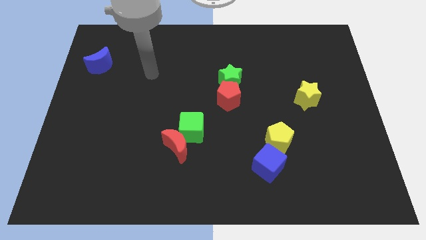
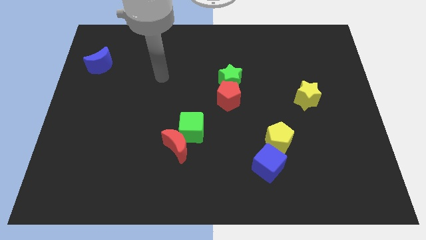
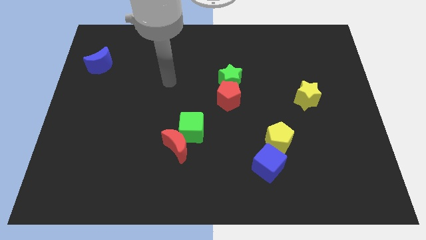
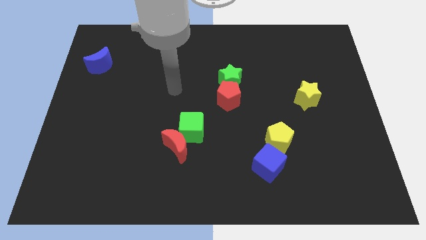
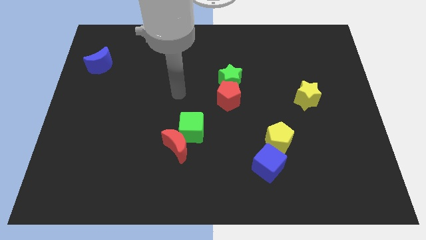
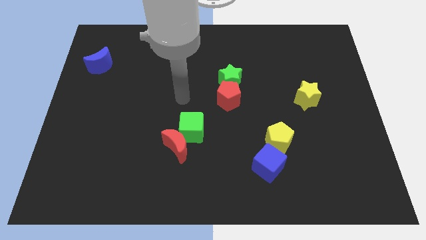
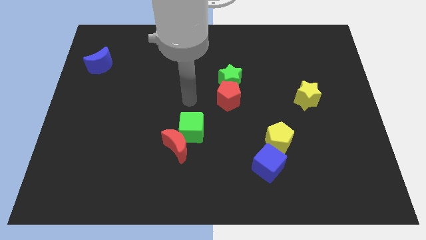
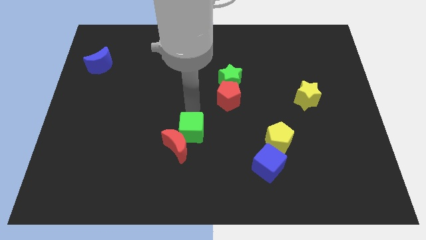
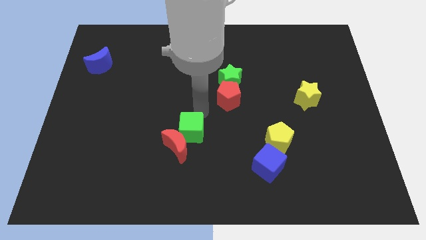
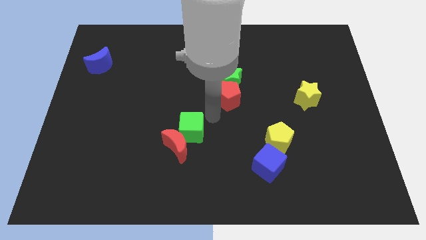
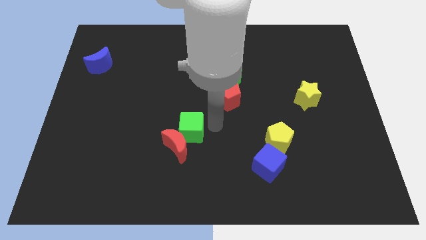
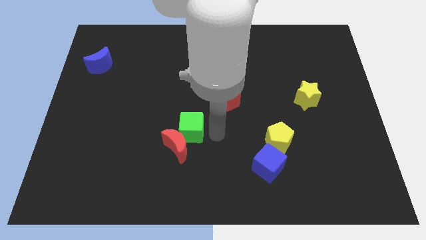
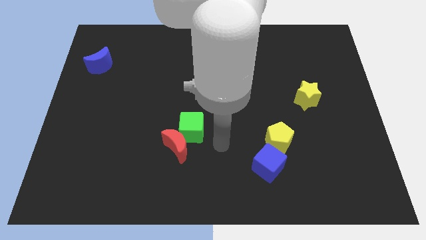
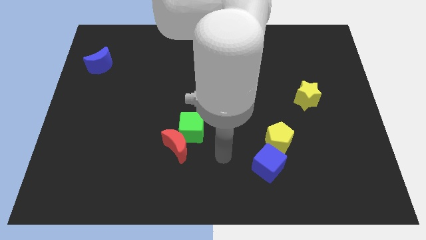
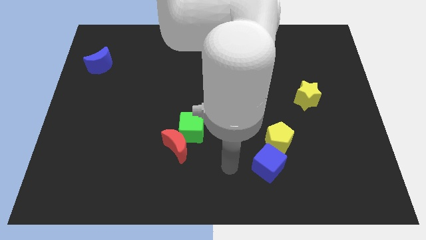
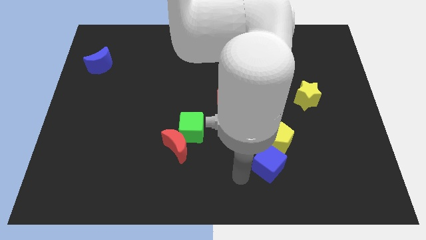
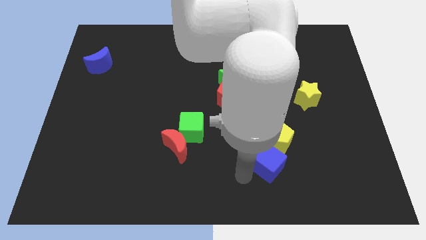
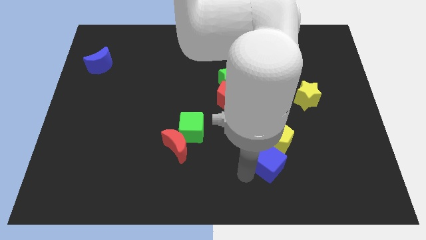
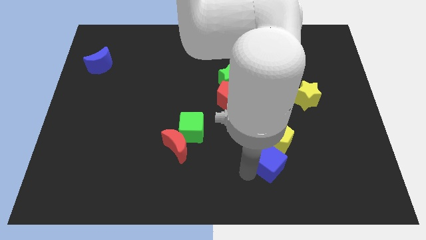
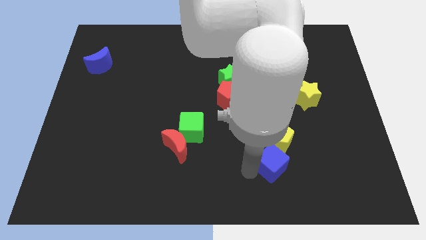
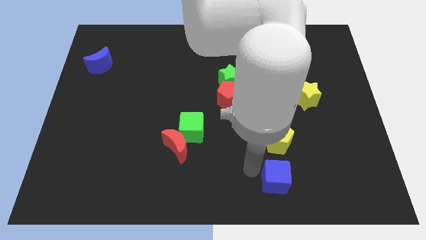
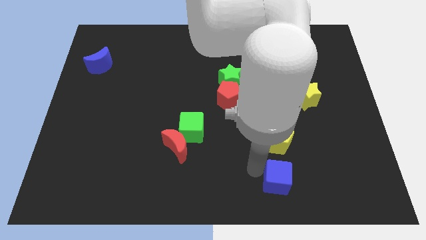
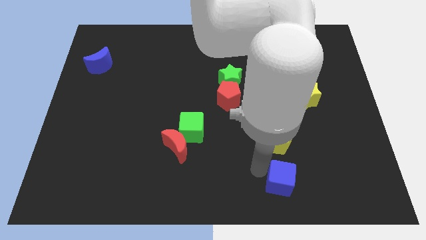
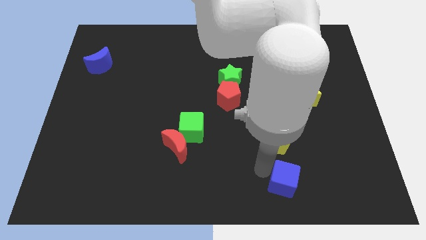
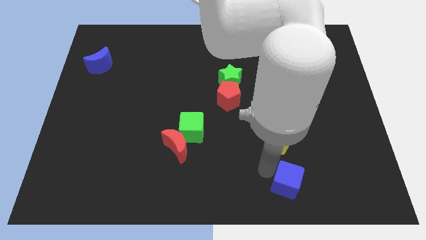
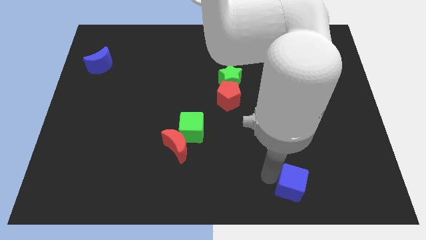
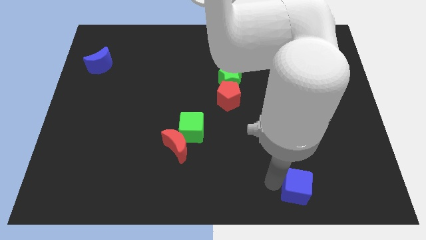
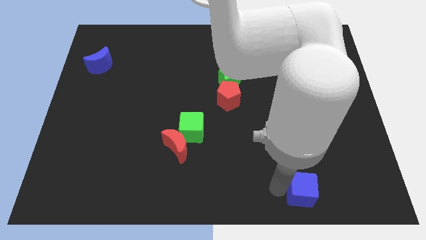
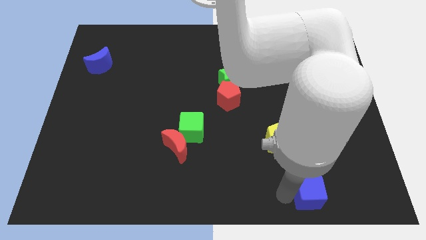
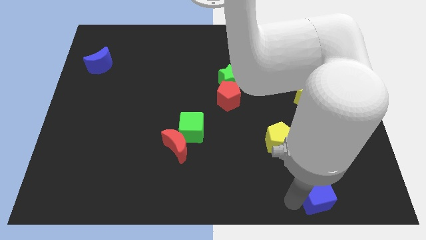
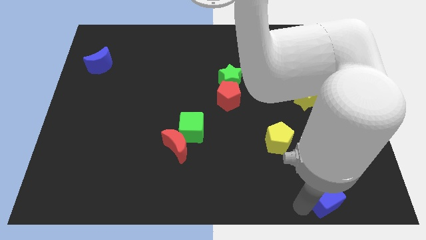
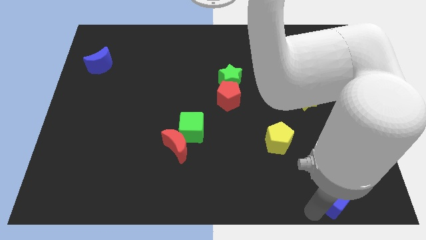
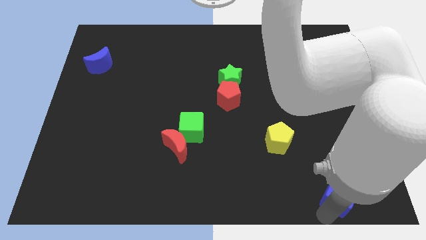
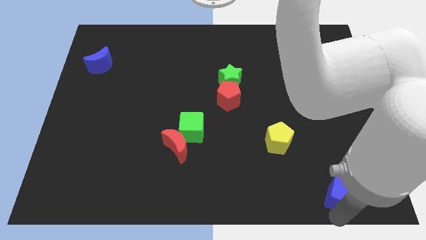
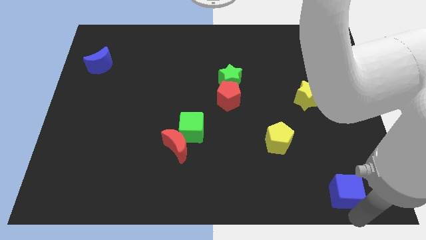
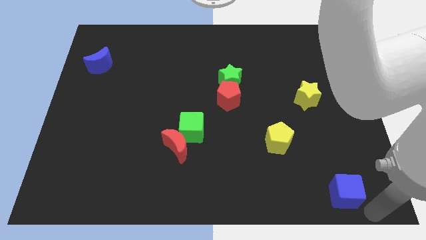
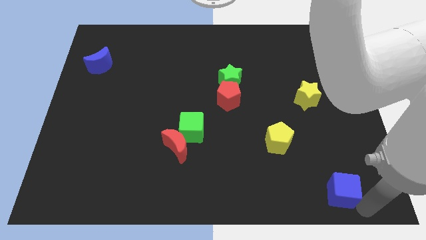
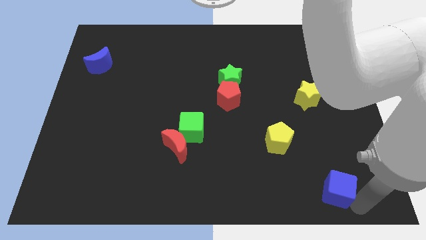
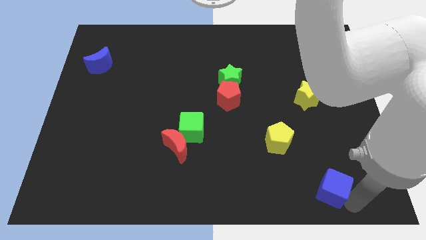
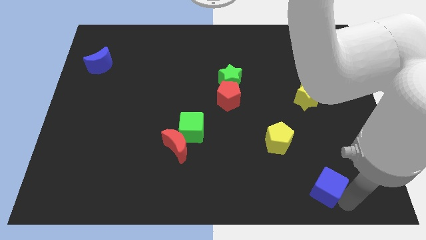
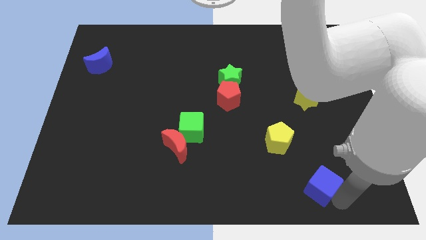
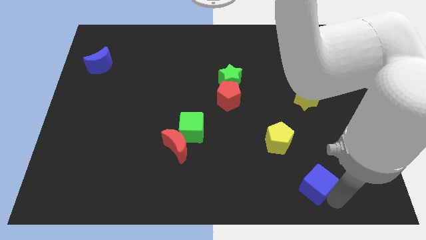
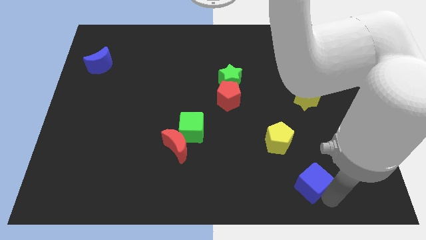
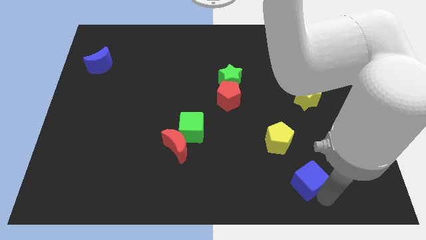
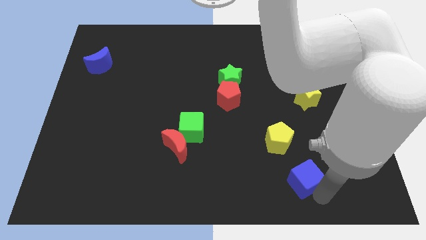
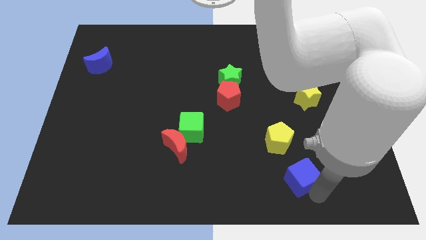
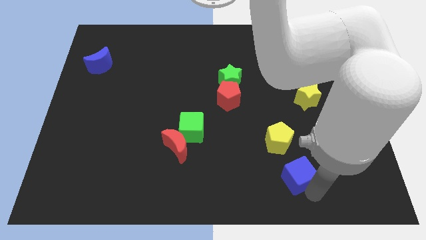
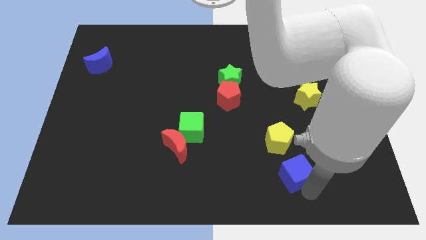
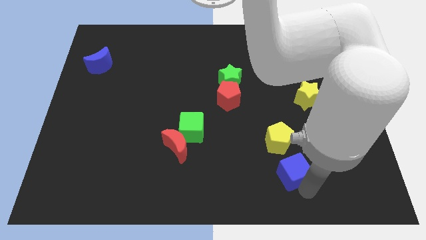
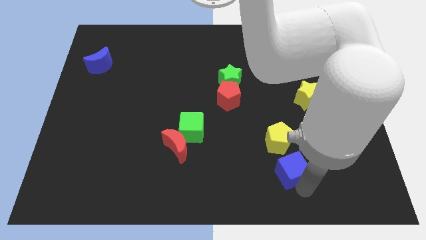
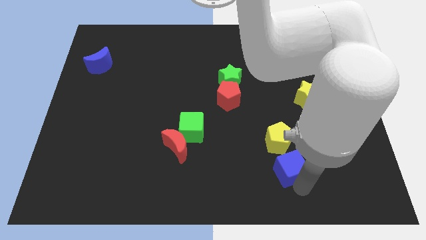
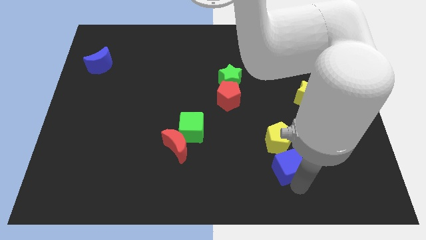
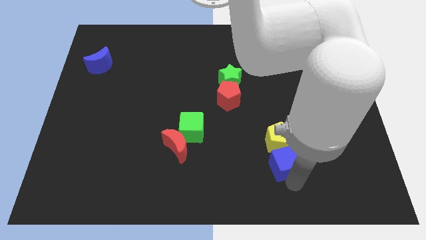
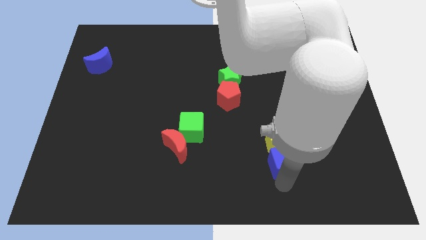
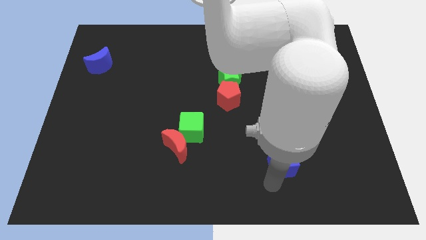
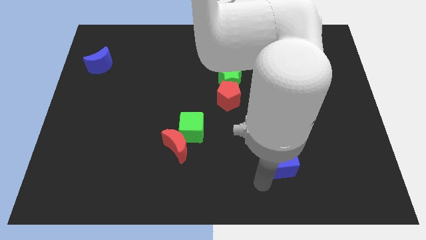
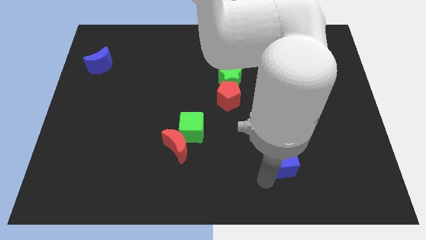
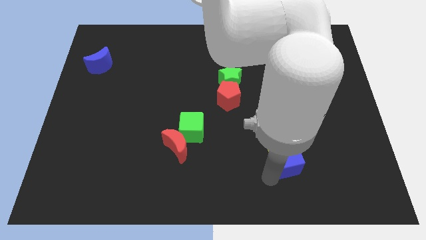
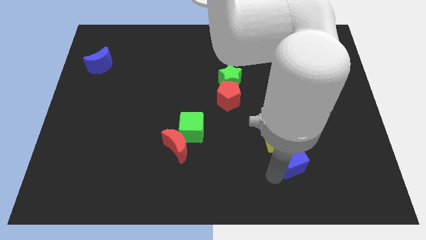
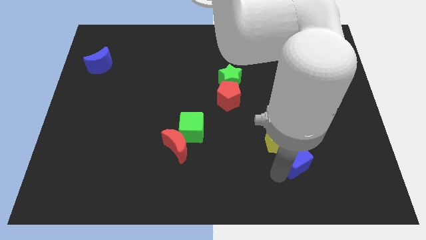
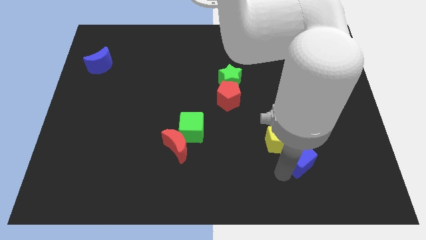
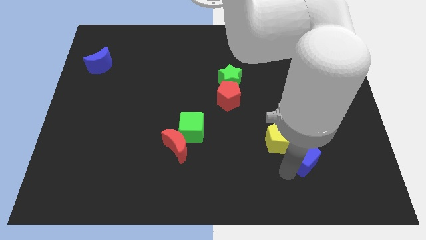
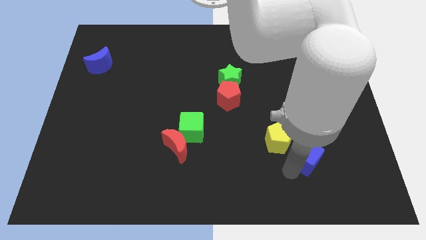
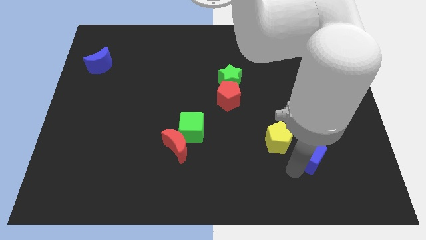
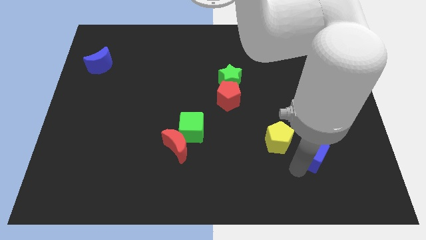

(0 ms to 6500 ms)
move the blue cube to the bottom of the yellow star

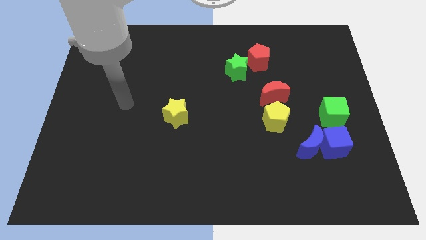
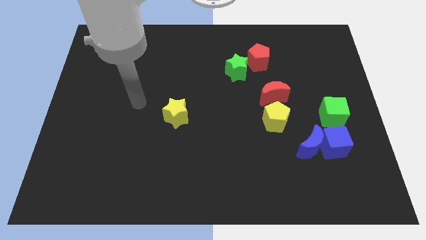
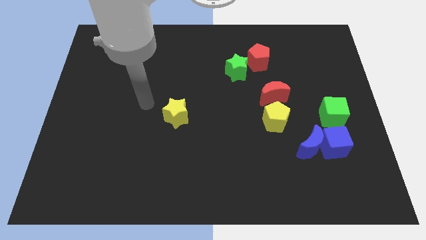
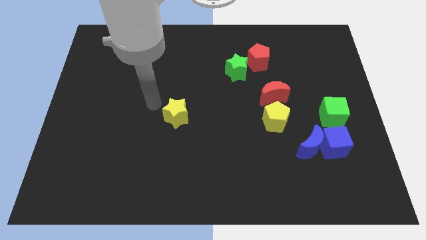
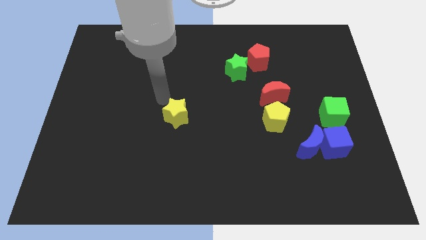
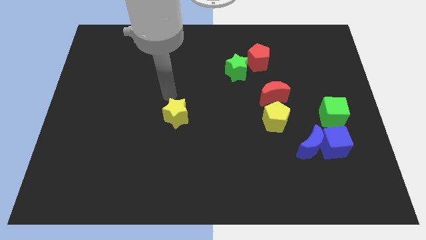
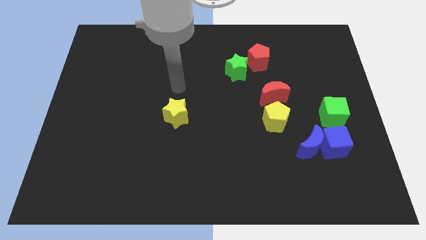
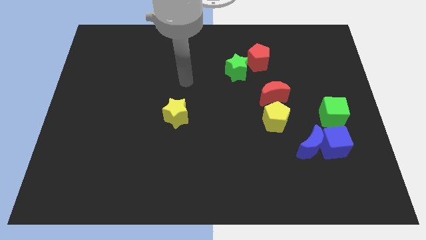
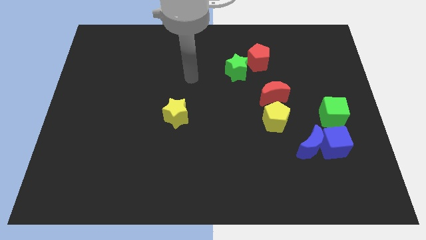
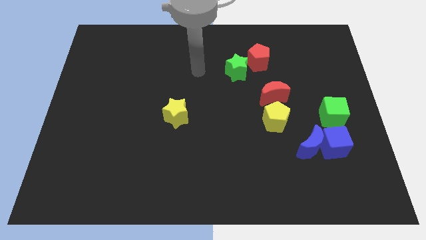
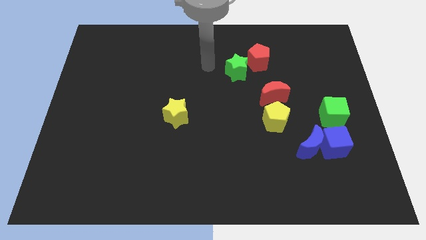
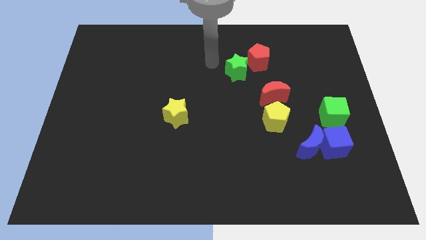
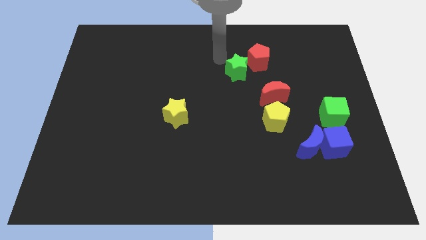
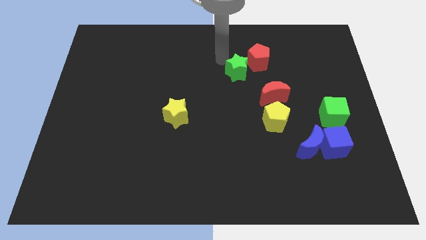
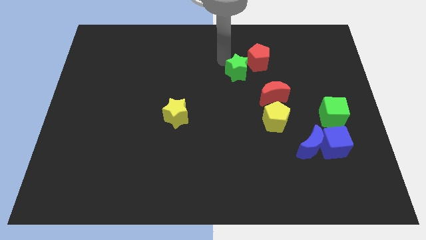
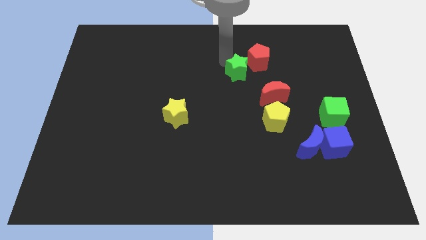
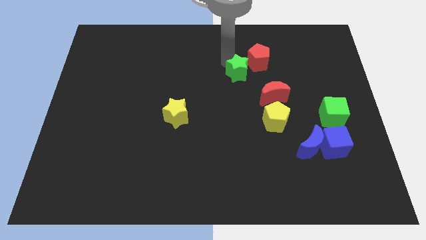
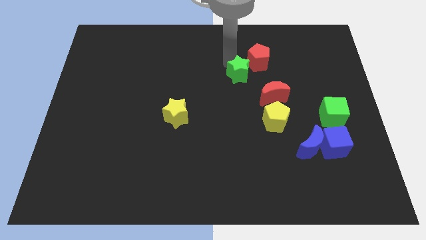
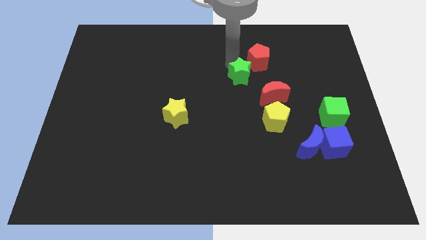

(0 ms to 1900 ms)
slide the green star below the red pentagon
